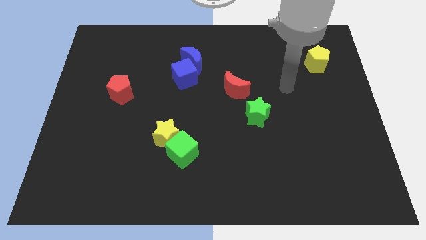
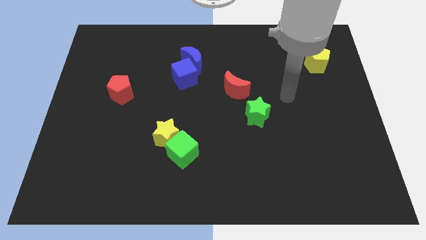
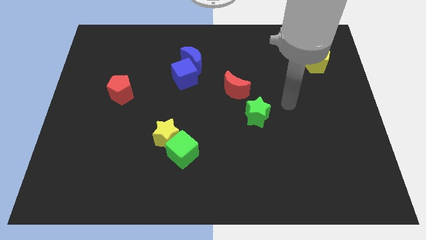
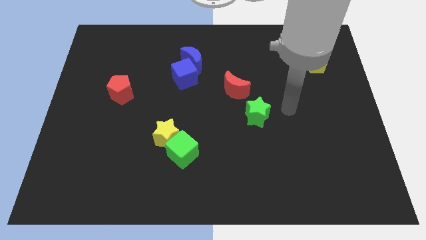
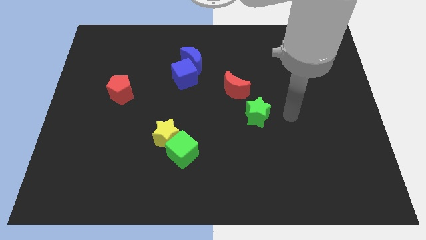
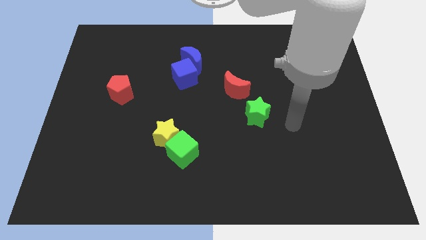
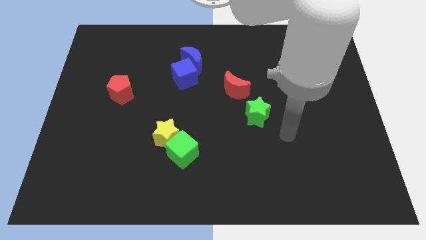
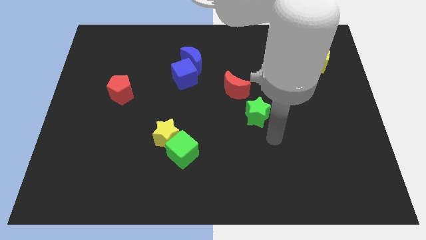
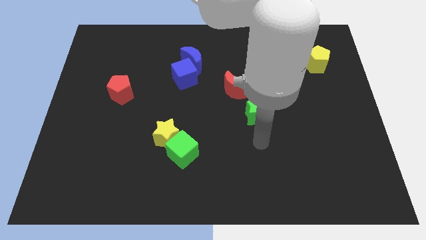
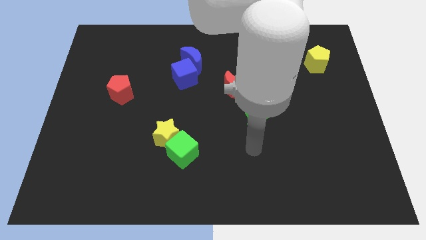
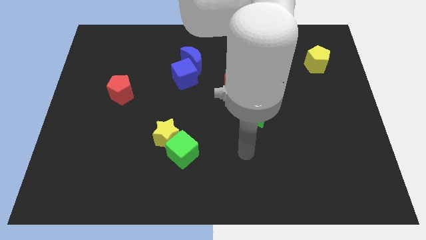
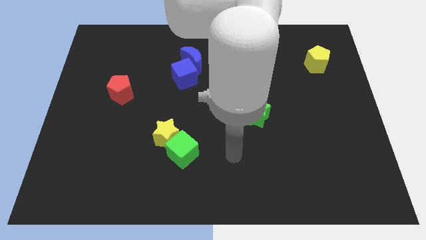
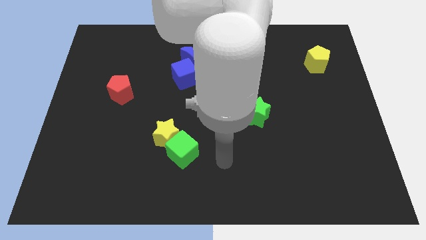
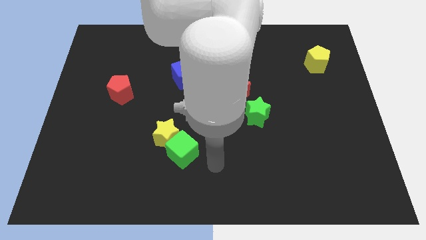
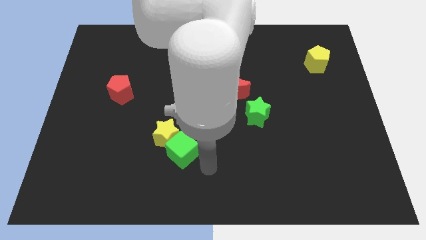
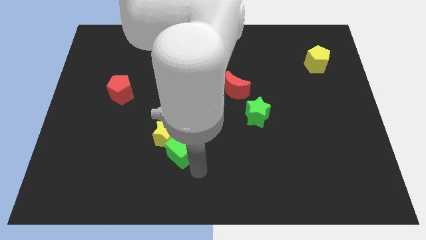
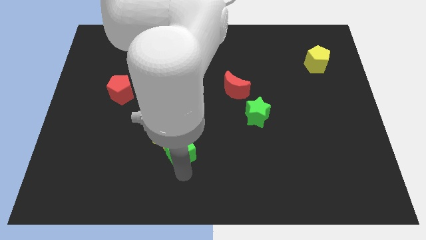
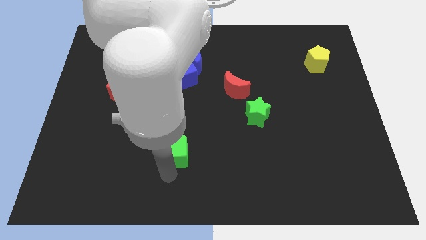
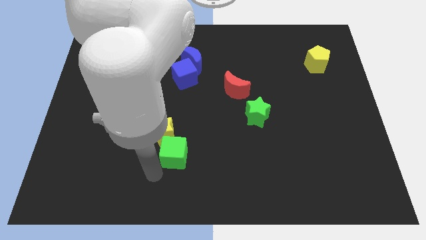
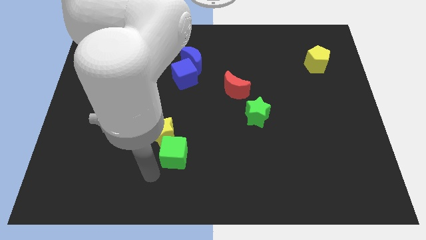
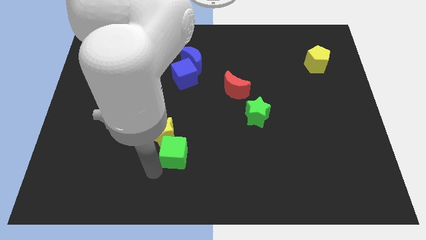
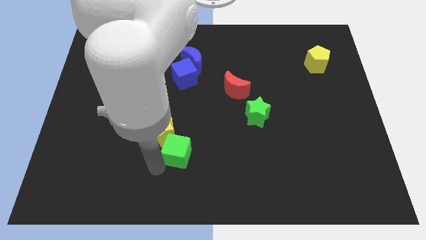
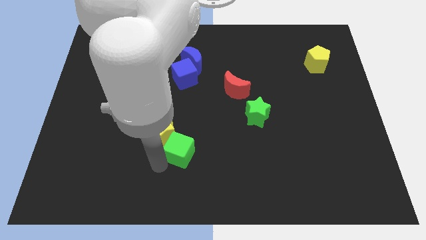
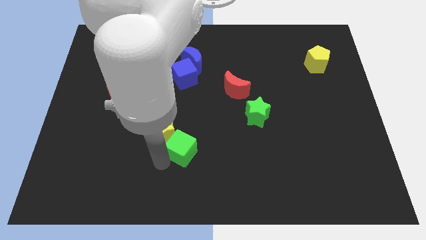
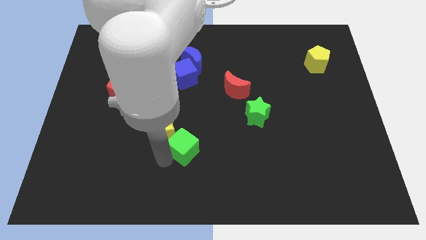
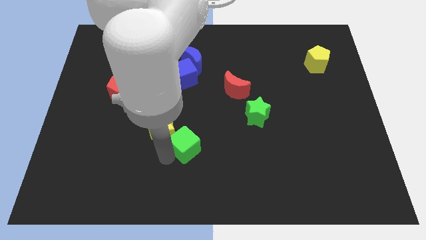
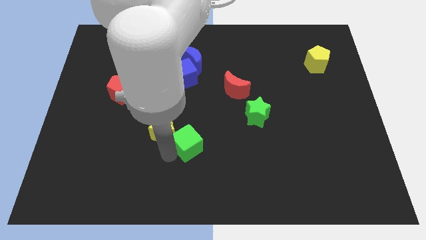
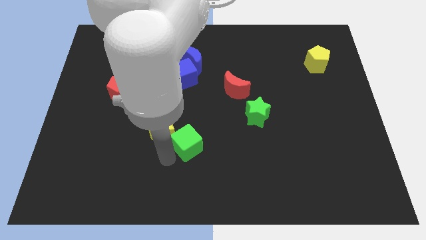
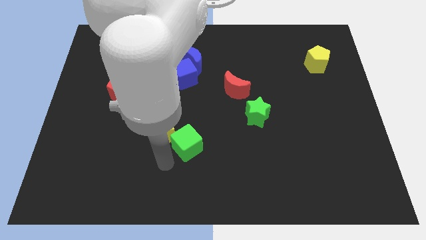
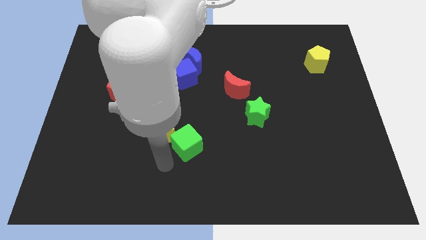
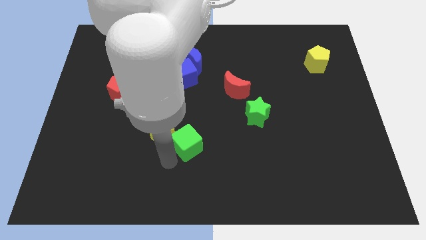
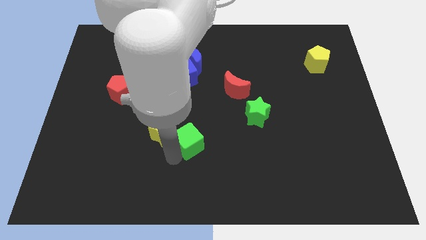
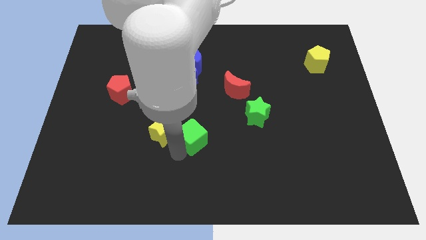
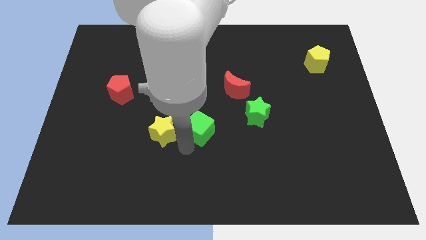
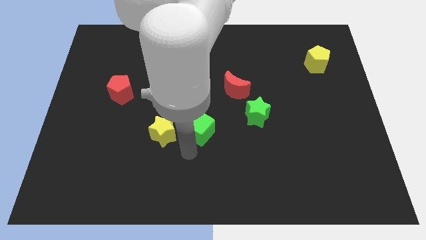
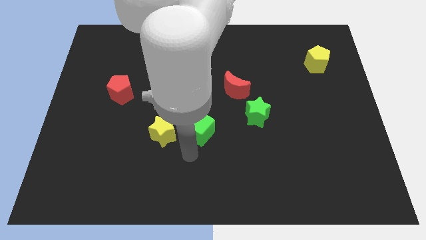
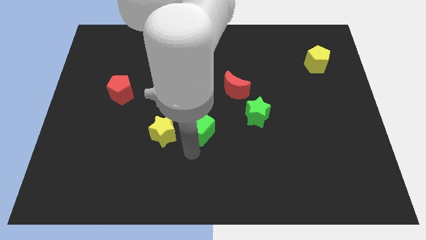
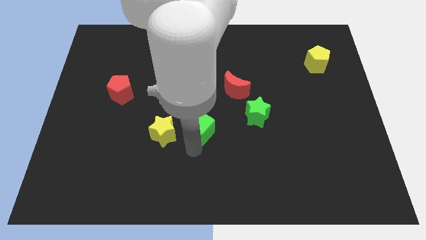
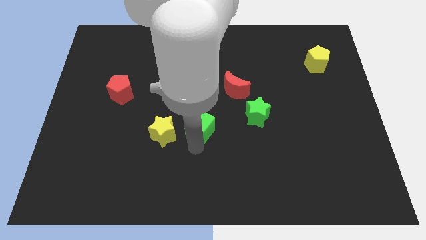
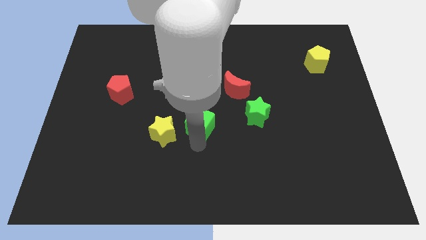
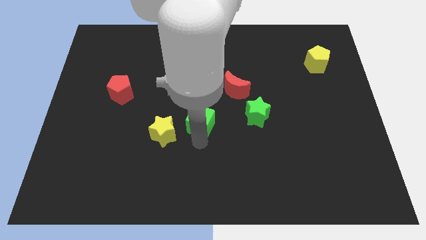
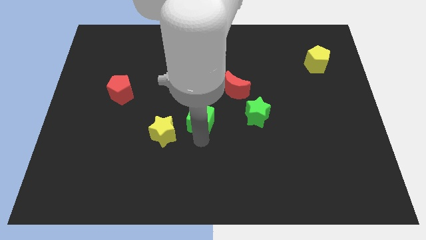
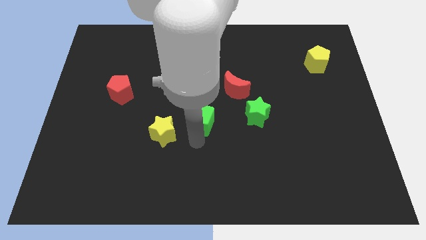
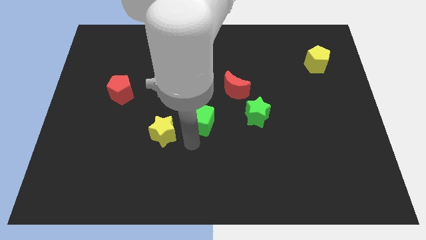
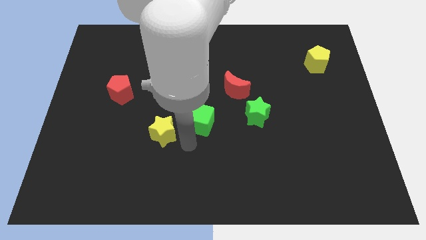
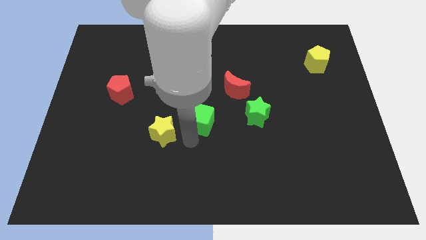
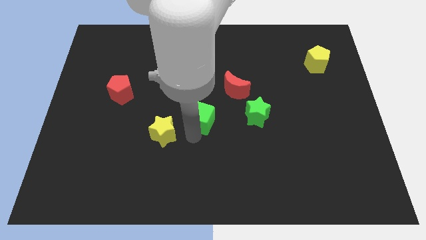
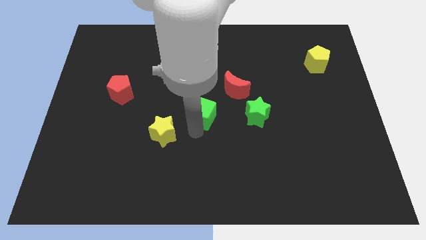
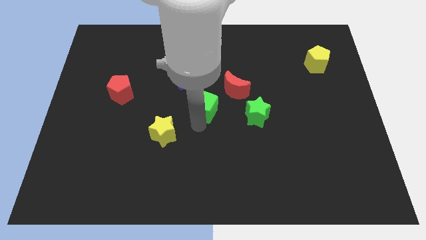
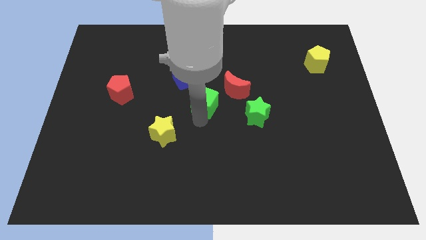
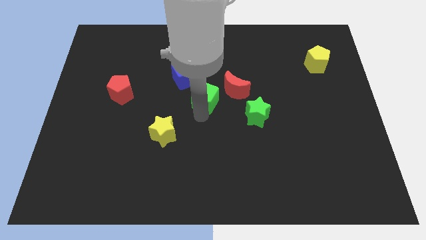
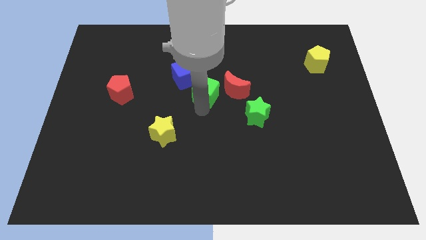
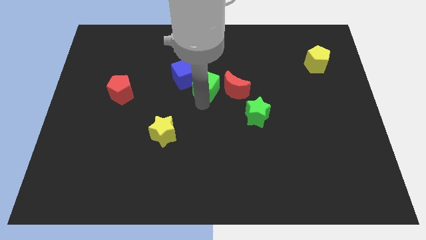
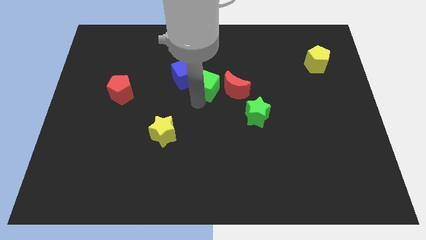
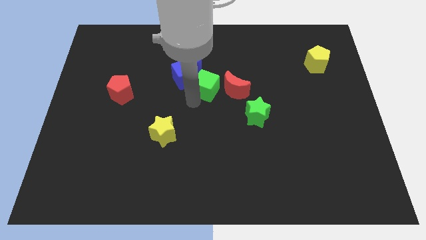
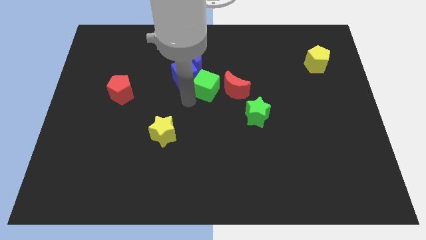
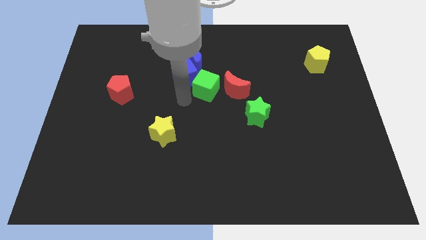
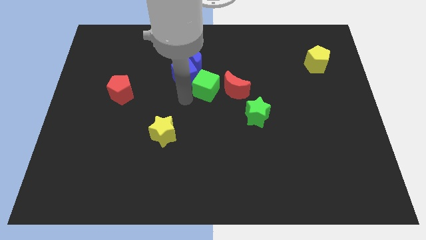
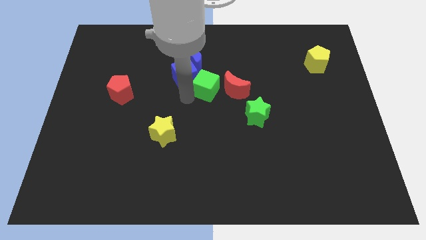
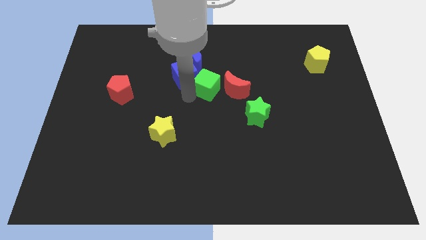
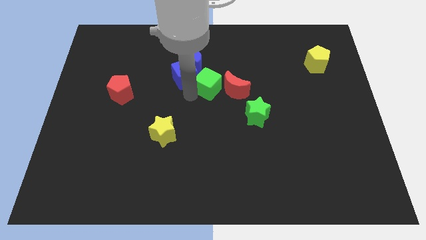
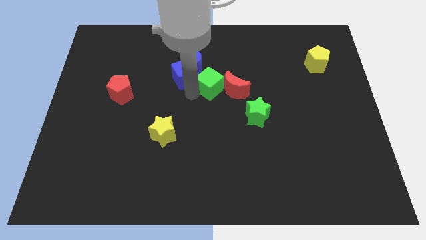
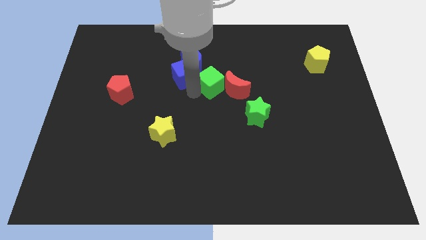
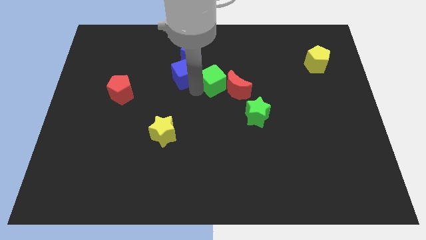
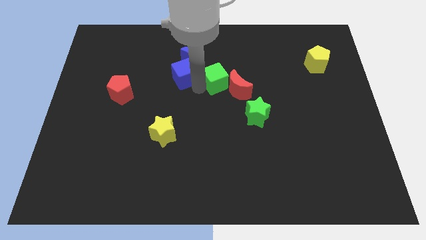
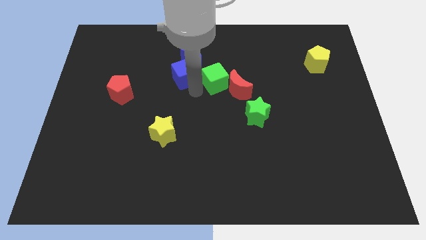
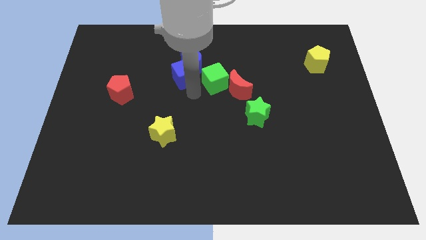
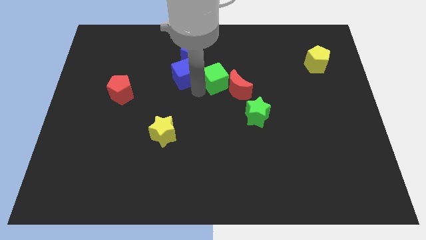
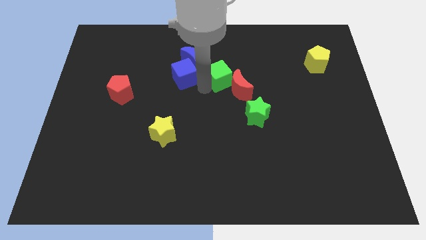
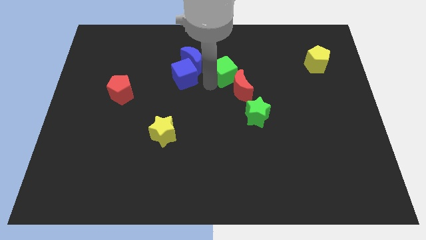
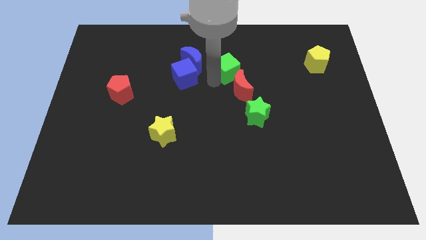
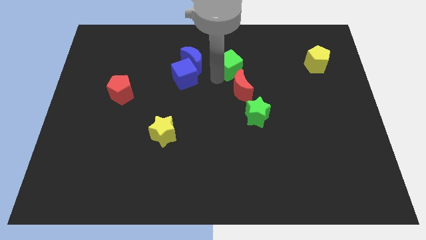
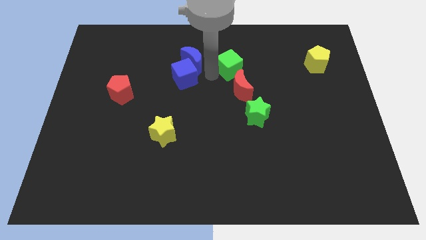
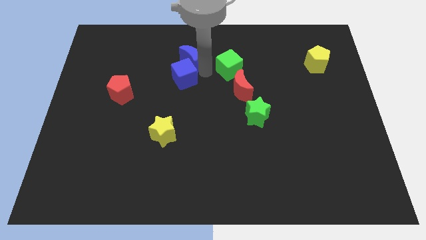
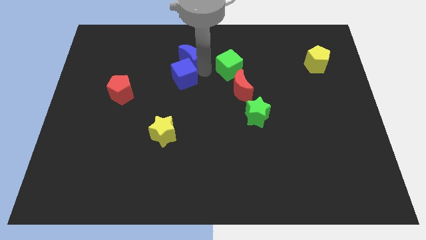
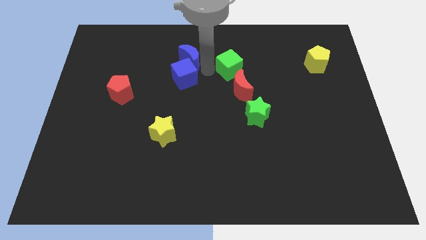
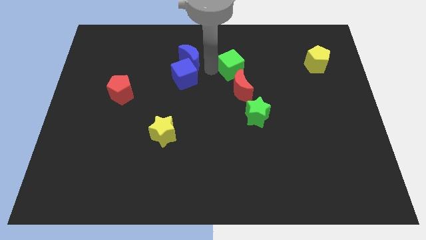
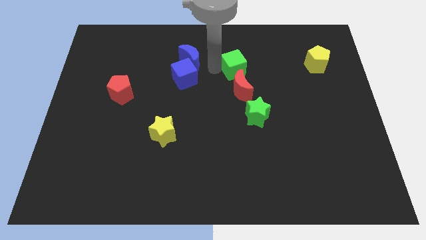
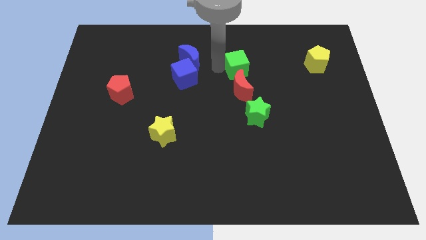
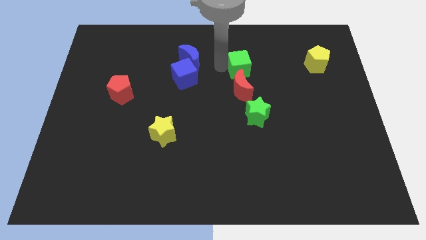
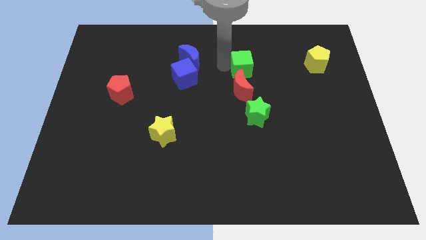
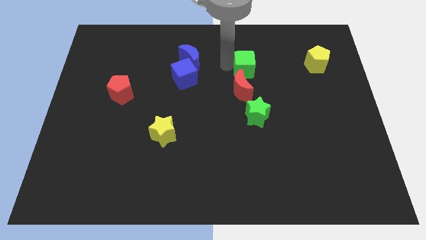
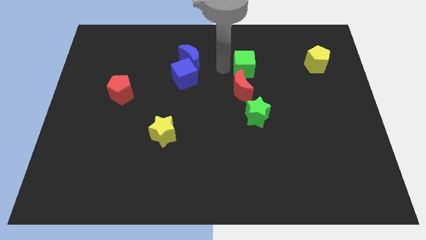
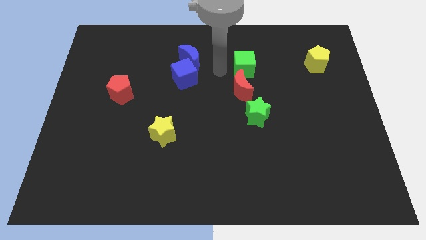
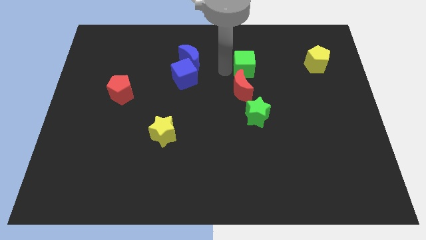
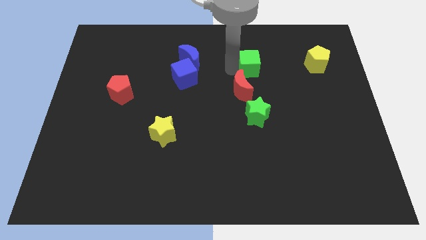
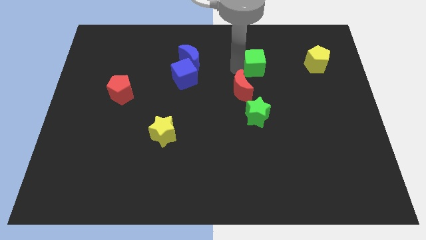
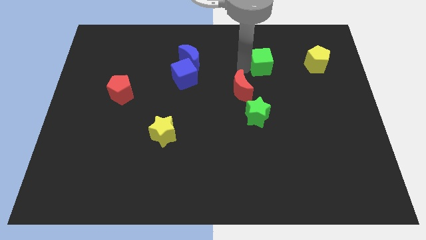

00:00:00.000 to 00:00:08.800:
slide the green cube left of the yellow pentagon
